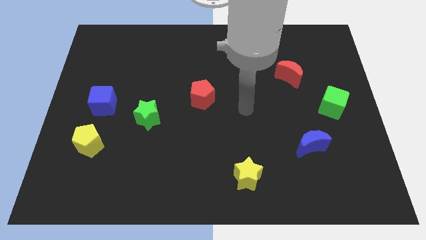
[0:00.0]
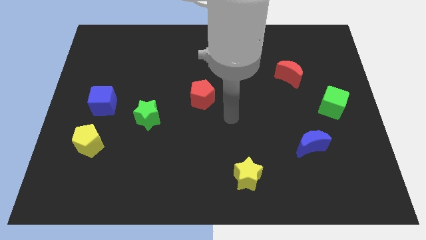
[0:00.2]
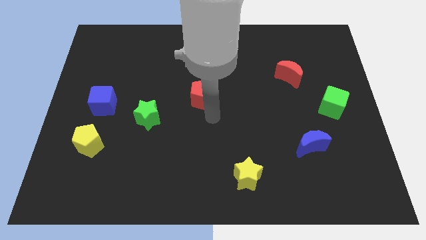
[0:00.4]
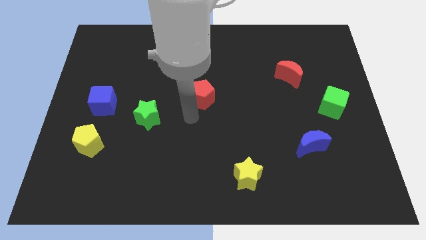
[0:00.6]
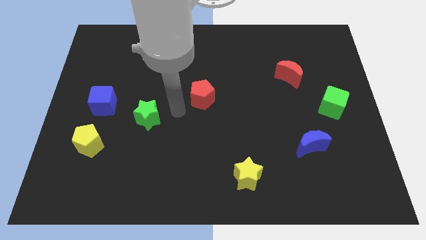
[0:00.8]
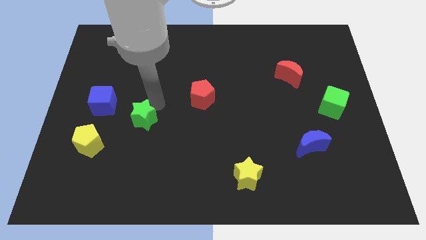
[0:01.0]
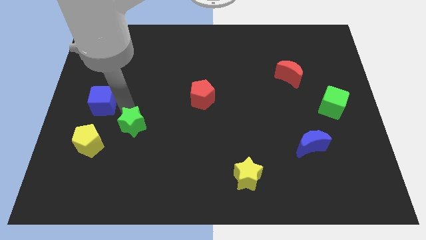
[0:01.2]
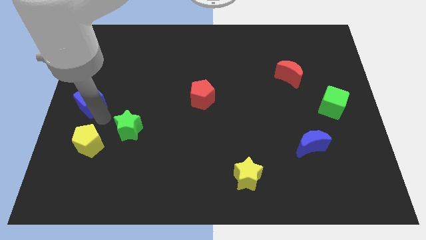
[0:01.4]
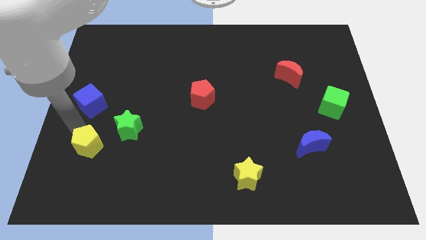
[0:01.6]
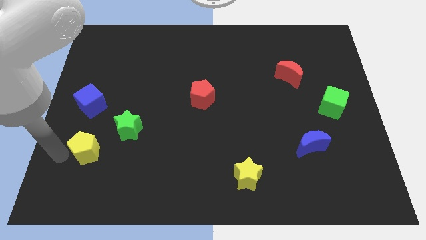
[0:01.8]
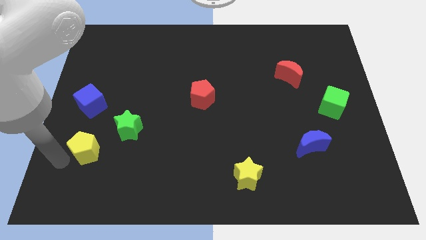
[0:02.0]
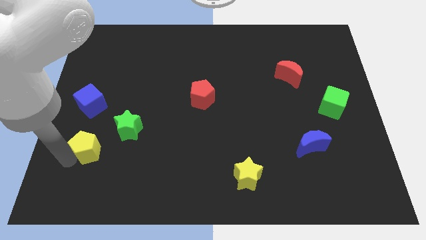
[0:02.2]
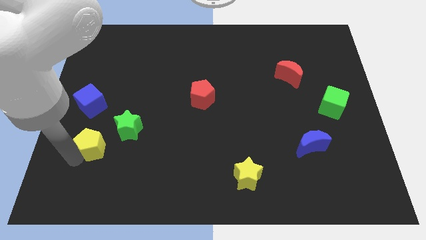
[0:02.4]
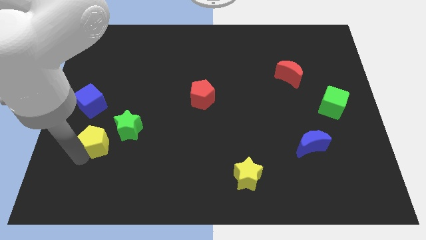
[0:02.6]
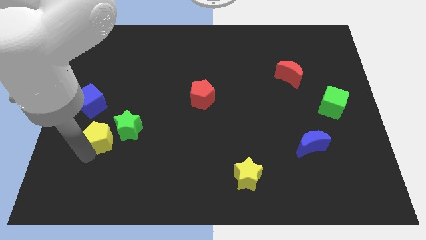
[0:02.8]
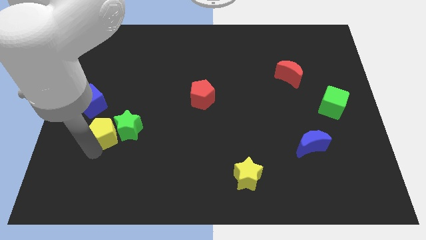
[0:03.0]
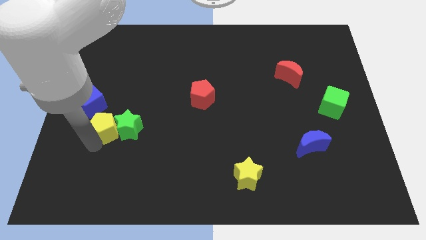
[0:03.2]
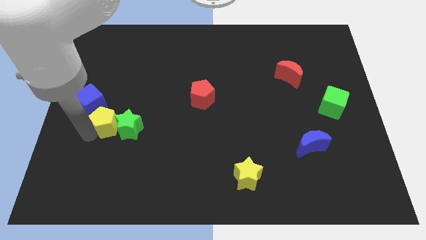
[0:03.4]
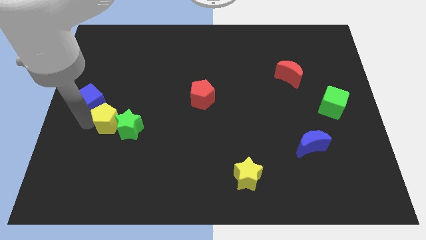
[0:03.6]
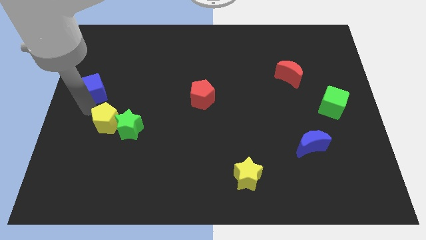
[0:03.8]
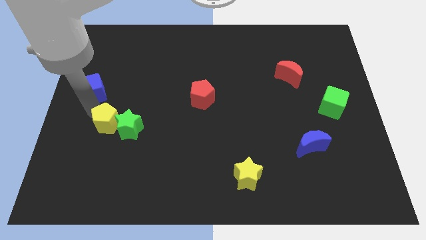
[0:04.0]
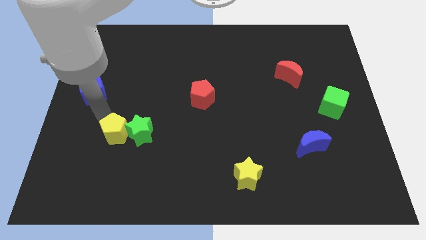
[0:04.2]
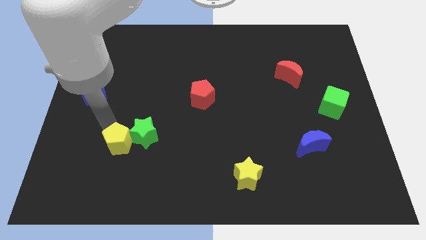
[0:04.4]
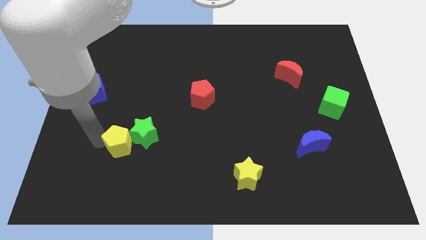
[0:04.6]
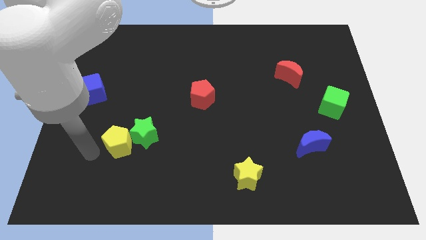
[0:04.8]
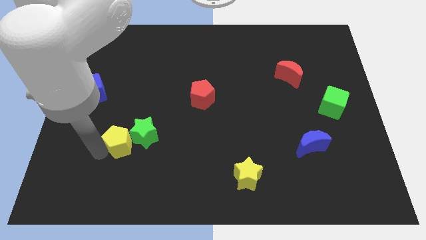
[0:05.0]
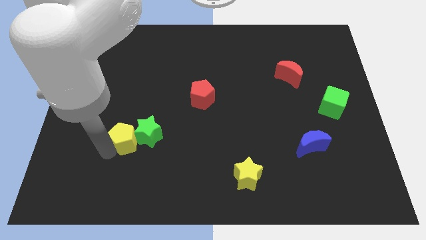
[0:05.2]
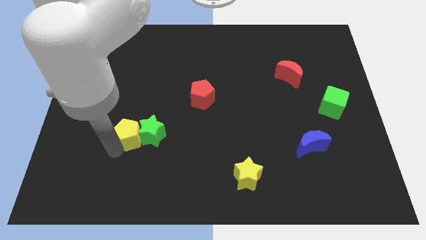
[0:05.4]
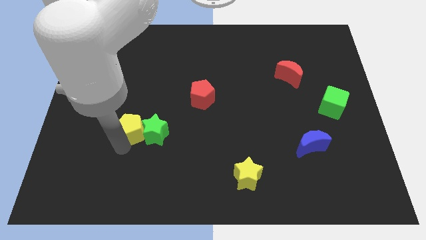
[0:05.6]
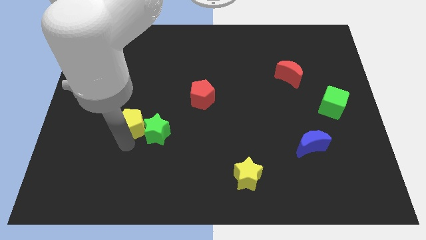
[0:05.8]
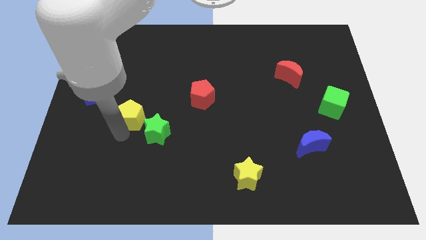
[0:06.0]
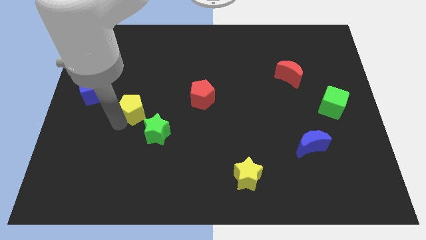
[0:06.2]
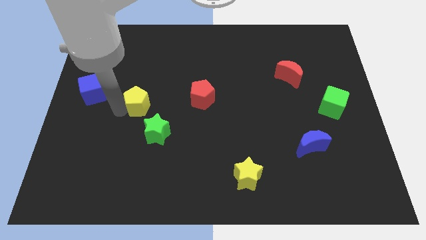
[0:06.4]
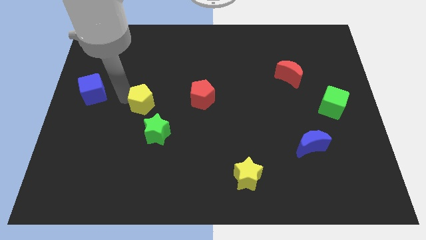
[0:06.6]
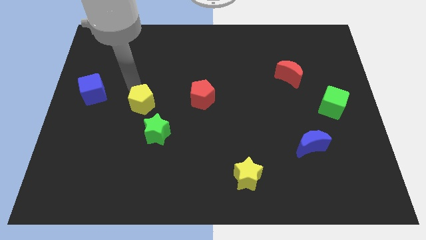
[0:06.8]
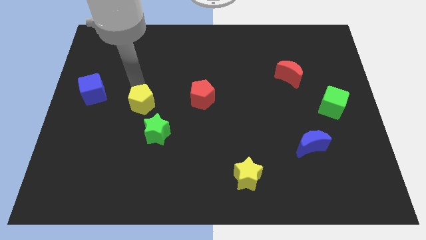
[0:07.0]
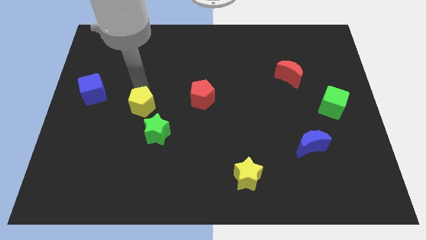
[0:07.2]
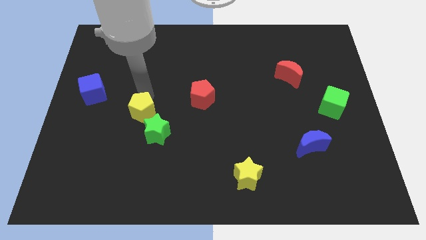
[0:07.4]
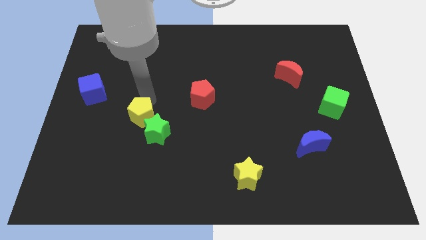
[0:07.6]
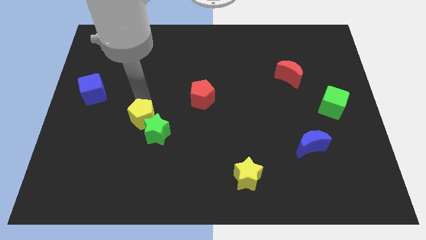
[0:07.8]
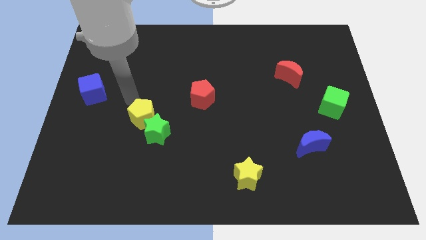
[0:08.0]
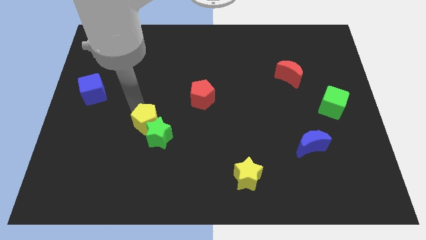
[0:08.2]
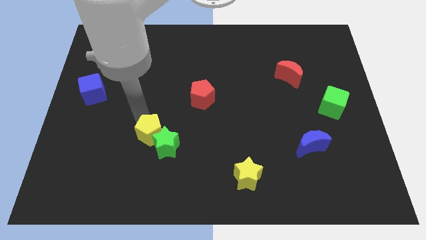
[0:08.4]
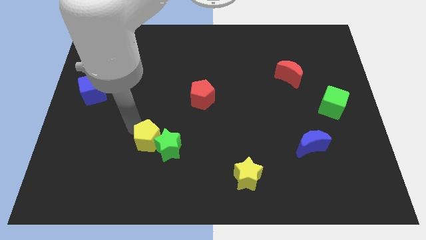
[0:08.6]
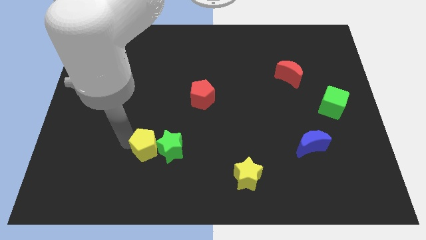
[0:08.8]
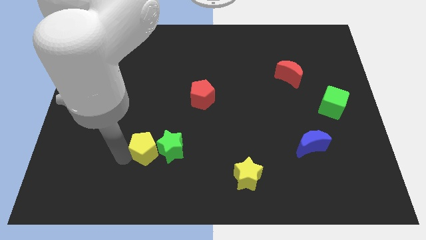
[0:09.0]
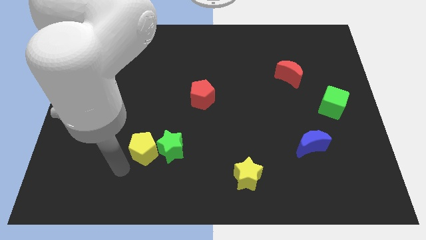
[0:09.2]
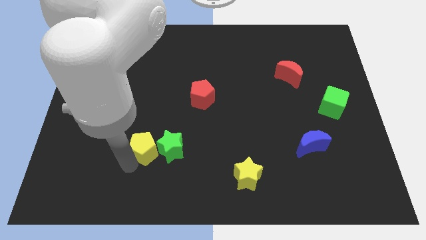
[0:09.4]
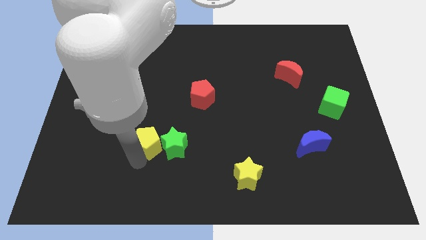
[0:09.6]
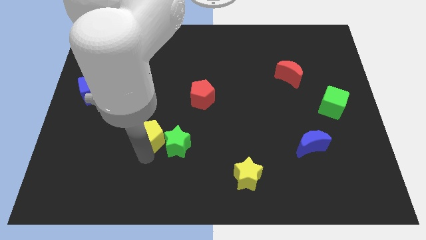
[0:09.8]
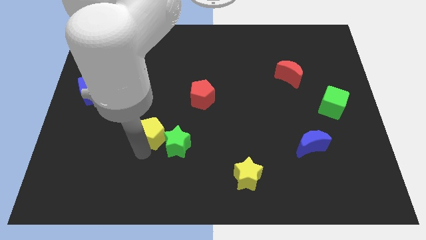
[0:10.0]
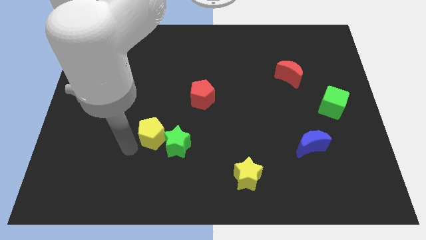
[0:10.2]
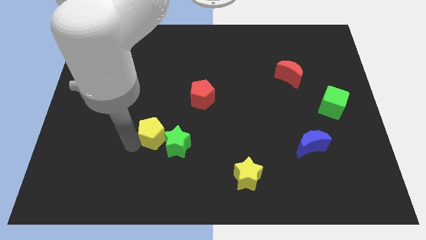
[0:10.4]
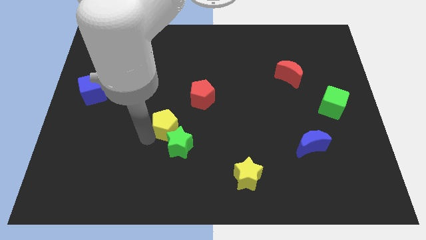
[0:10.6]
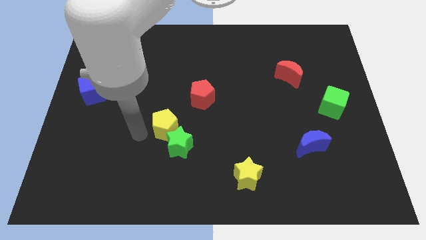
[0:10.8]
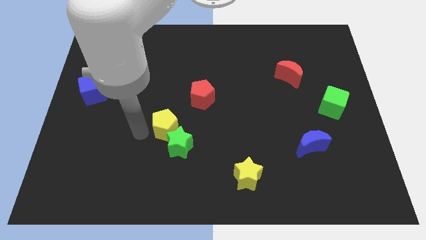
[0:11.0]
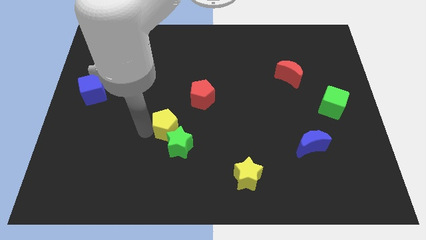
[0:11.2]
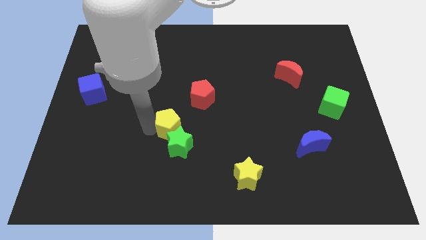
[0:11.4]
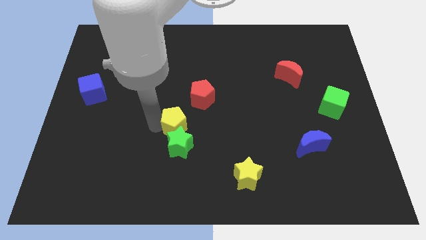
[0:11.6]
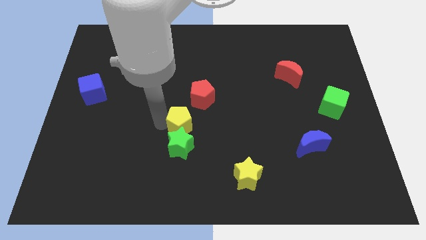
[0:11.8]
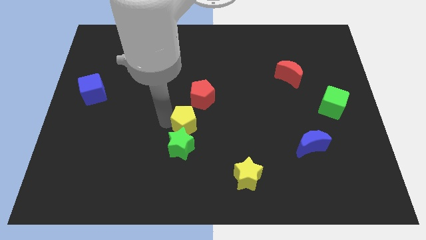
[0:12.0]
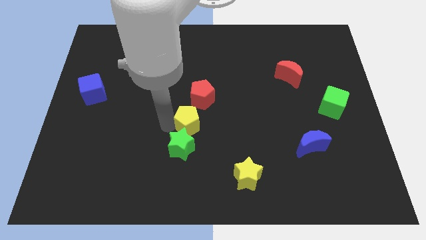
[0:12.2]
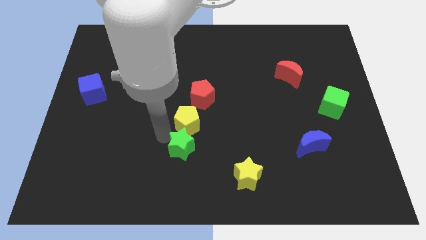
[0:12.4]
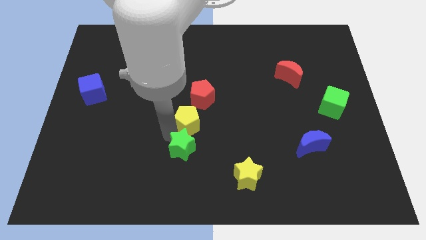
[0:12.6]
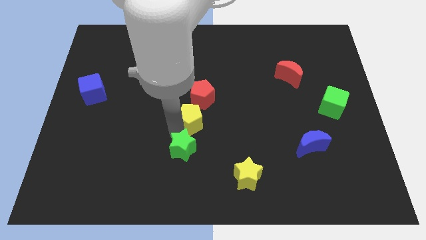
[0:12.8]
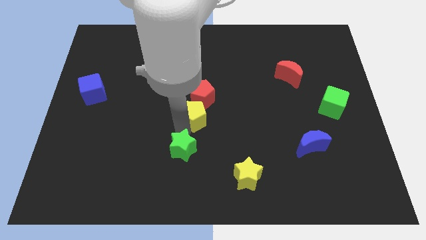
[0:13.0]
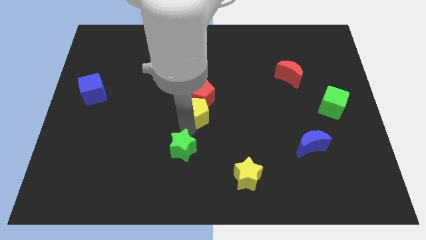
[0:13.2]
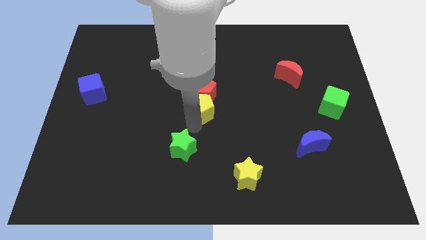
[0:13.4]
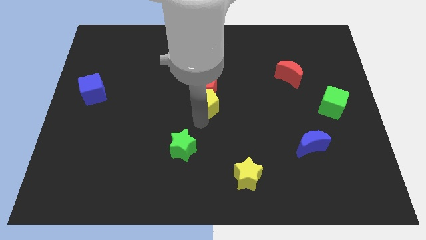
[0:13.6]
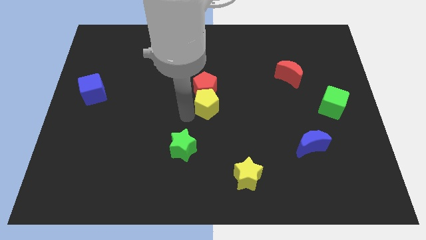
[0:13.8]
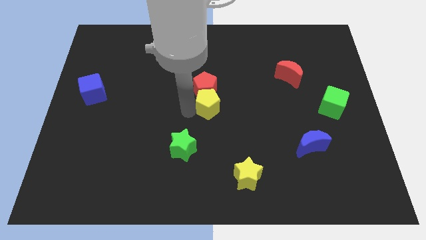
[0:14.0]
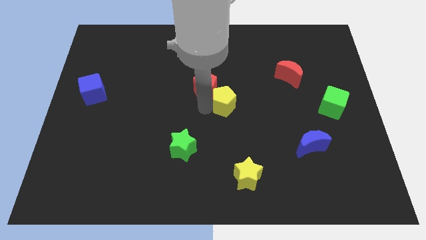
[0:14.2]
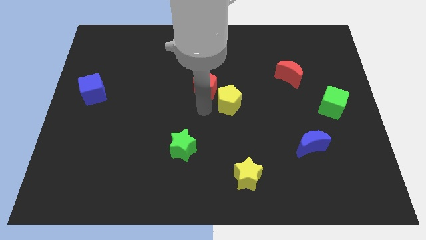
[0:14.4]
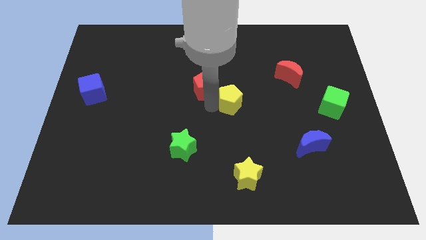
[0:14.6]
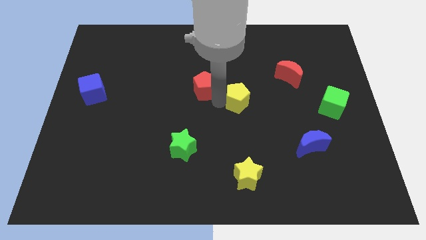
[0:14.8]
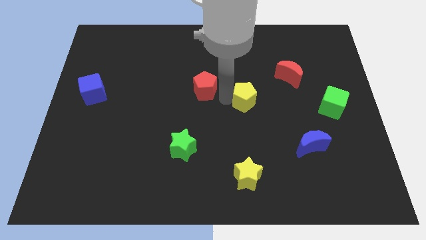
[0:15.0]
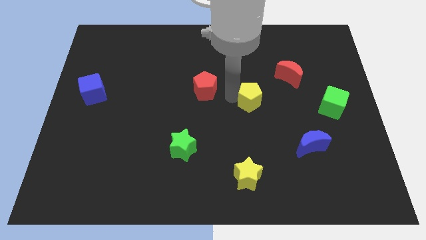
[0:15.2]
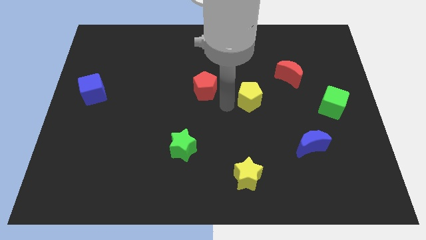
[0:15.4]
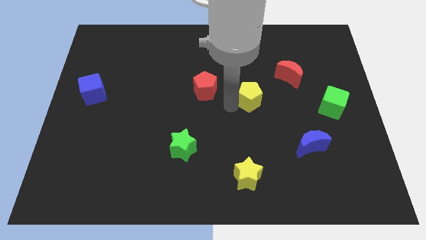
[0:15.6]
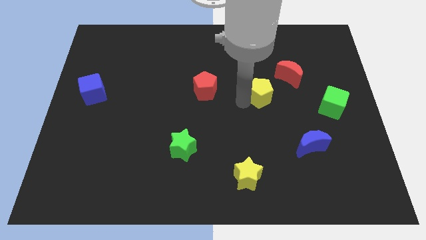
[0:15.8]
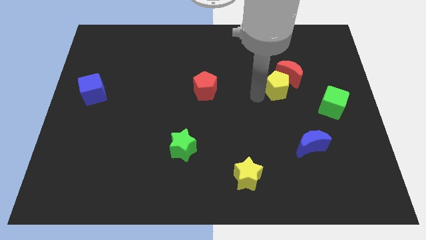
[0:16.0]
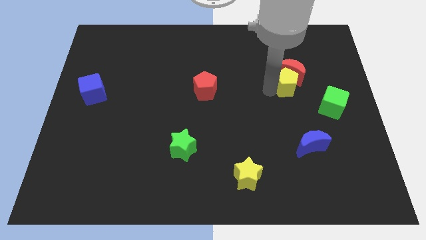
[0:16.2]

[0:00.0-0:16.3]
move the yellow pentagon diagonally up and to the left of the green cube
